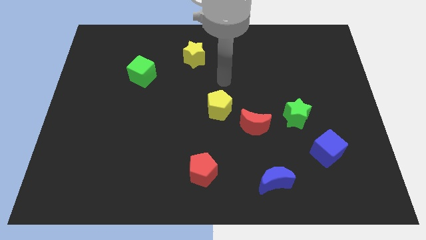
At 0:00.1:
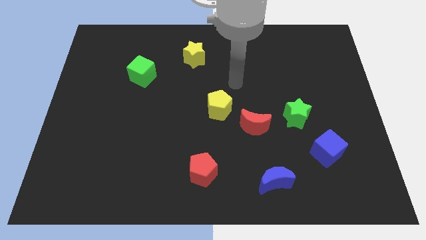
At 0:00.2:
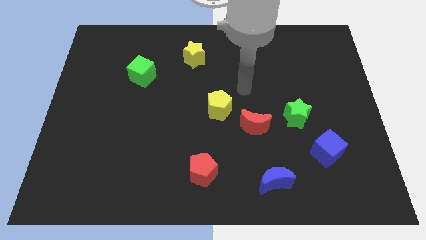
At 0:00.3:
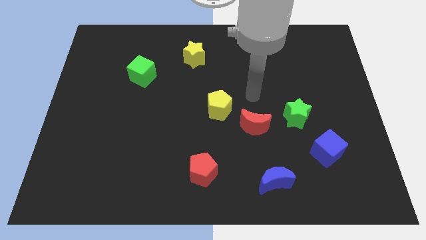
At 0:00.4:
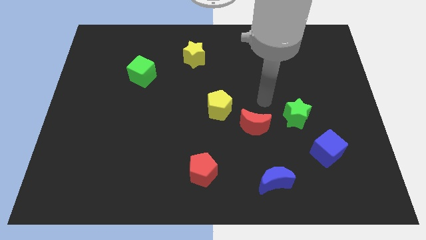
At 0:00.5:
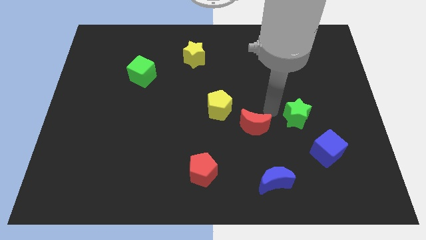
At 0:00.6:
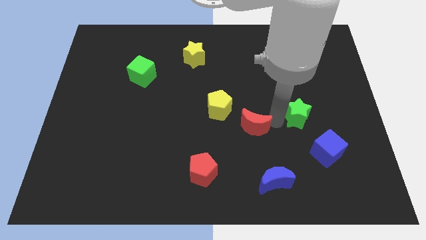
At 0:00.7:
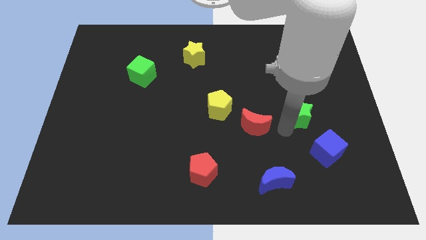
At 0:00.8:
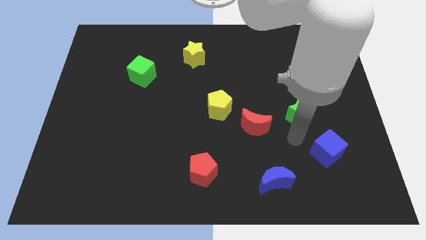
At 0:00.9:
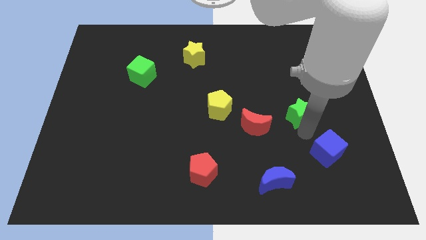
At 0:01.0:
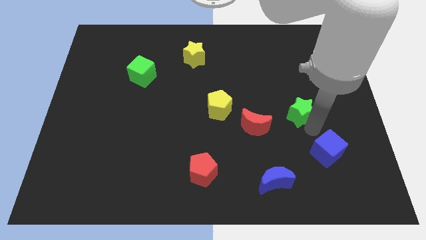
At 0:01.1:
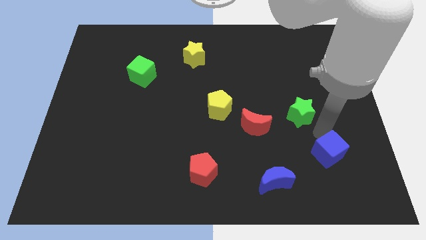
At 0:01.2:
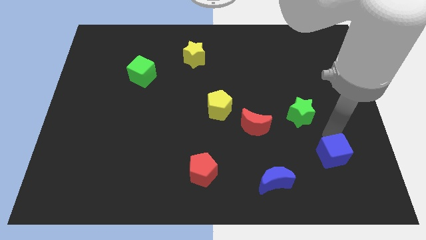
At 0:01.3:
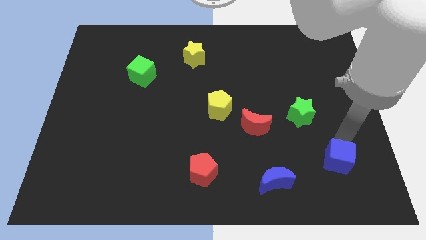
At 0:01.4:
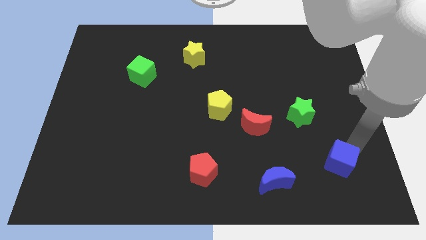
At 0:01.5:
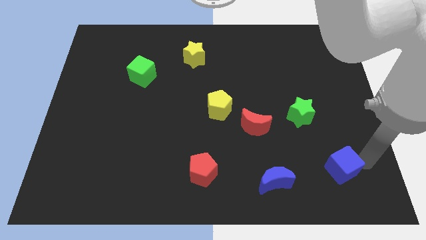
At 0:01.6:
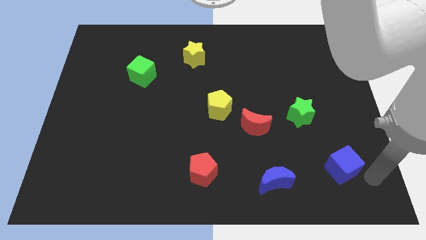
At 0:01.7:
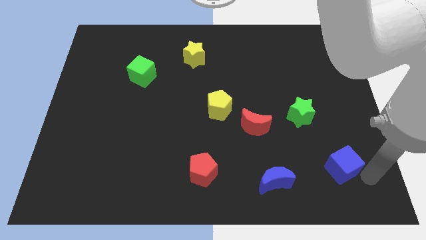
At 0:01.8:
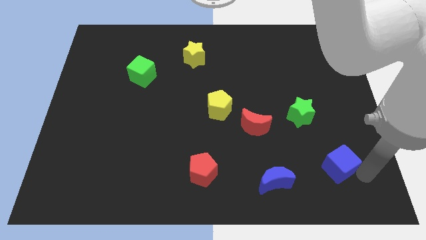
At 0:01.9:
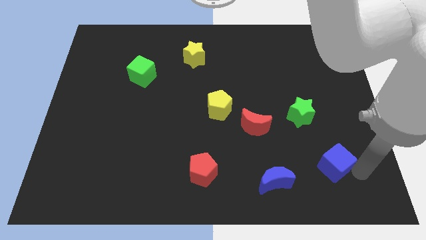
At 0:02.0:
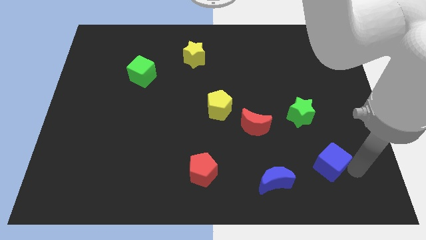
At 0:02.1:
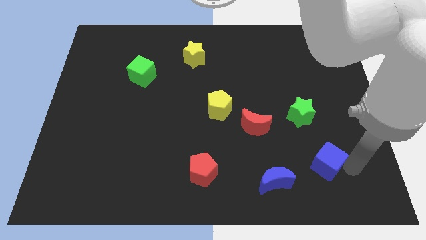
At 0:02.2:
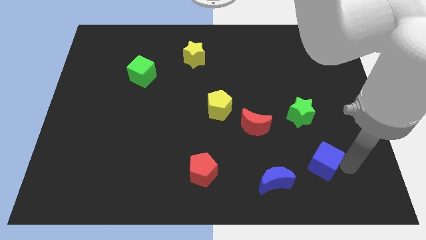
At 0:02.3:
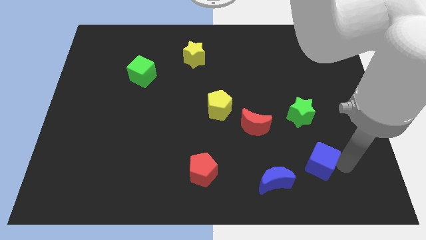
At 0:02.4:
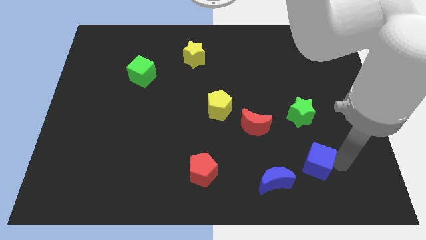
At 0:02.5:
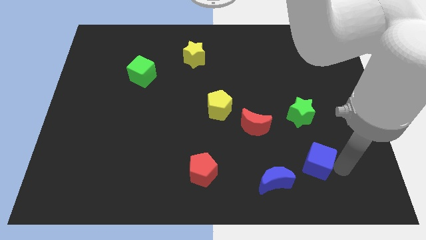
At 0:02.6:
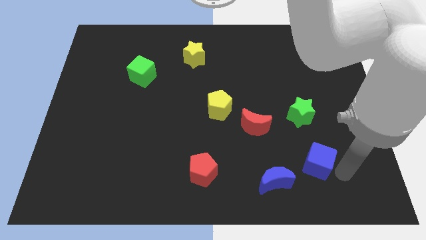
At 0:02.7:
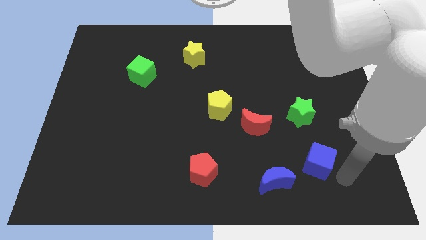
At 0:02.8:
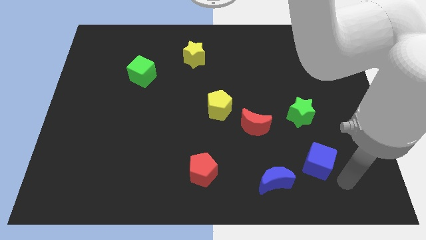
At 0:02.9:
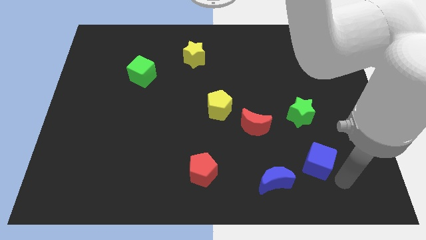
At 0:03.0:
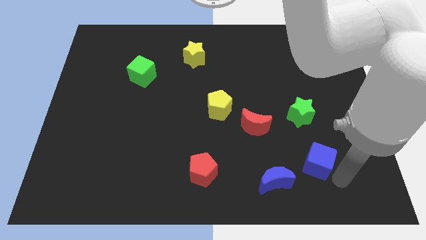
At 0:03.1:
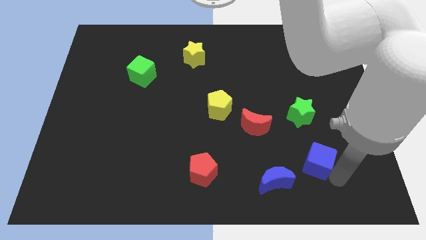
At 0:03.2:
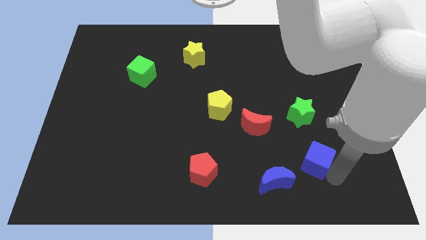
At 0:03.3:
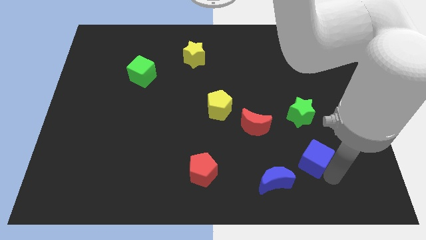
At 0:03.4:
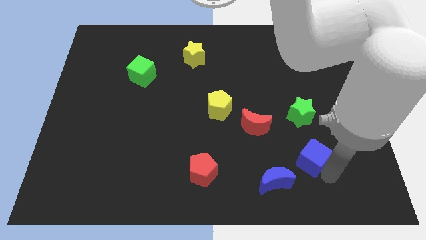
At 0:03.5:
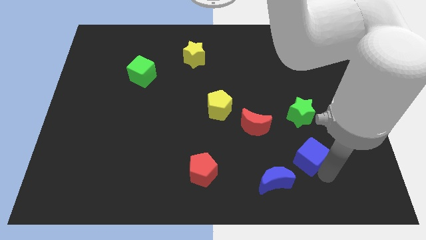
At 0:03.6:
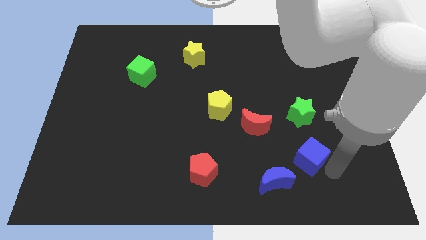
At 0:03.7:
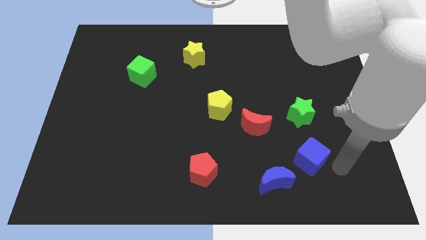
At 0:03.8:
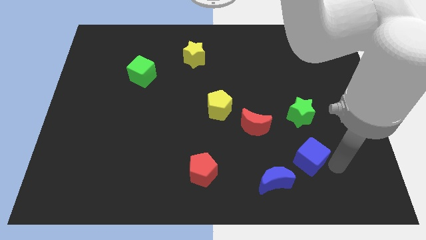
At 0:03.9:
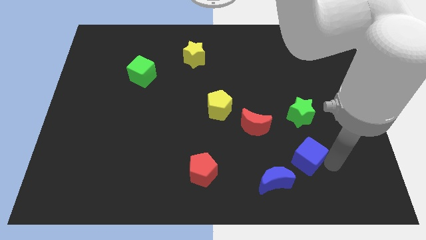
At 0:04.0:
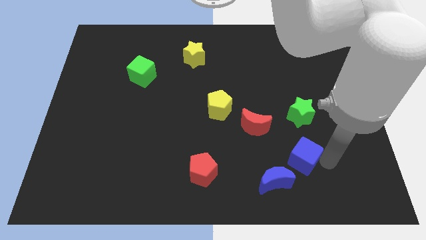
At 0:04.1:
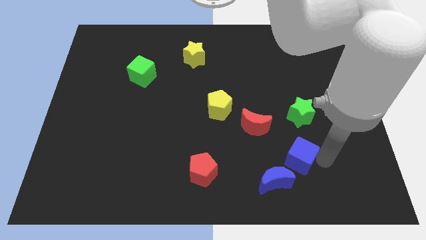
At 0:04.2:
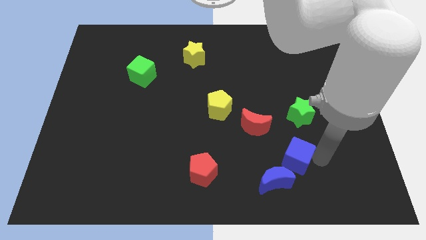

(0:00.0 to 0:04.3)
move the blue cube left a bit

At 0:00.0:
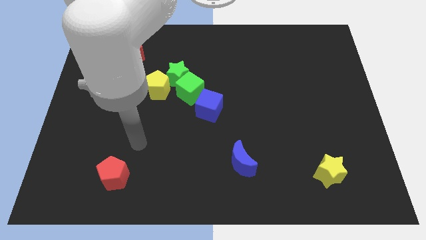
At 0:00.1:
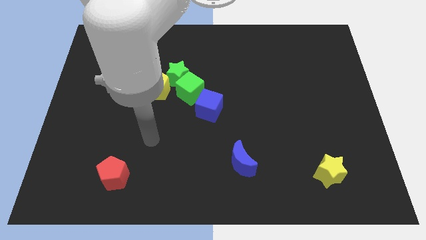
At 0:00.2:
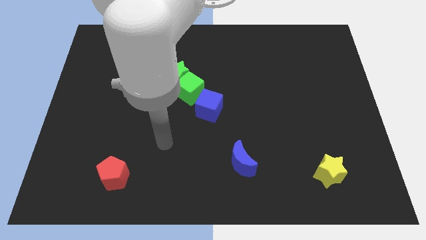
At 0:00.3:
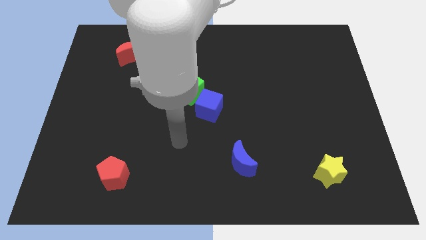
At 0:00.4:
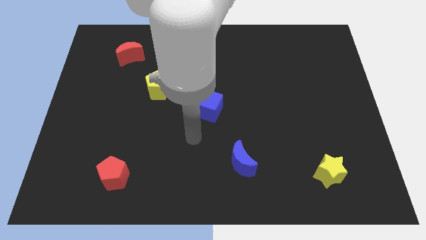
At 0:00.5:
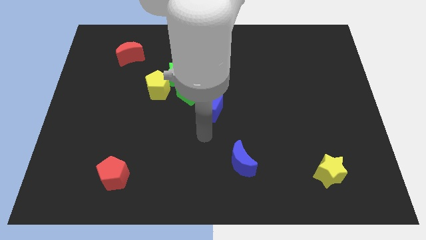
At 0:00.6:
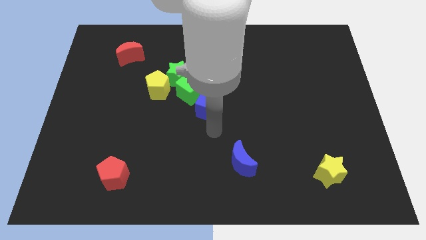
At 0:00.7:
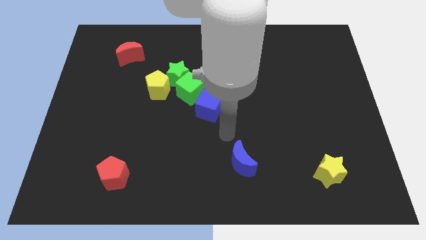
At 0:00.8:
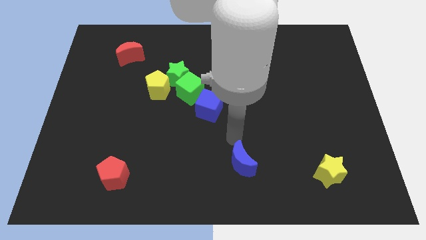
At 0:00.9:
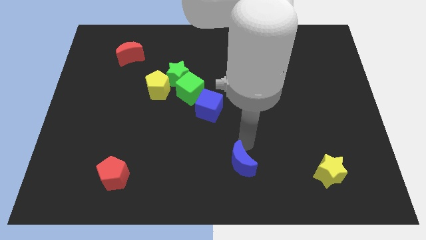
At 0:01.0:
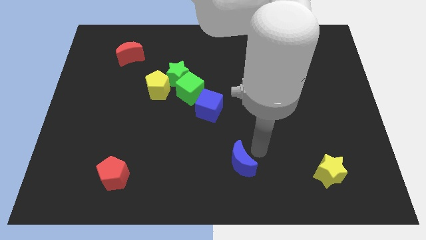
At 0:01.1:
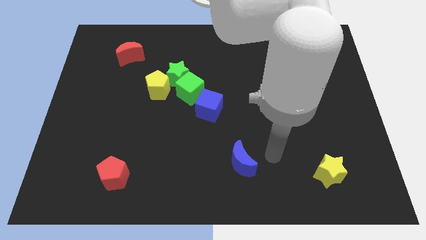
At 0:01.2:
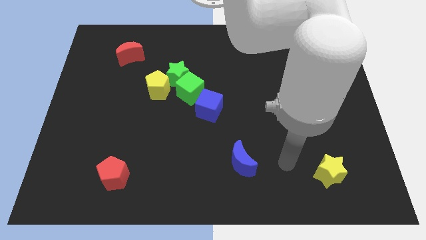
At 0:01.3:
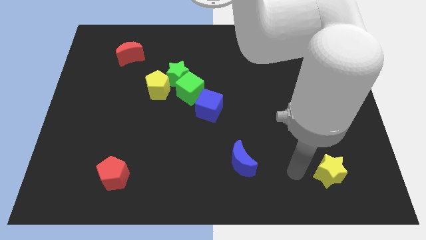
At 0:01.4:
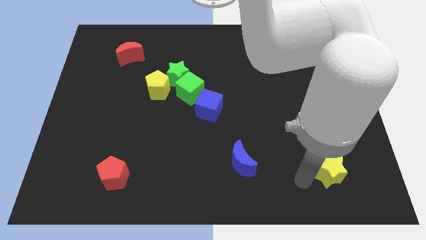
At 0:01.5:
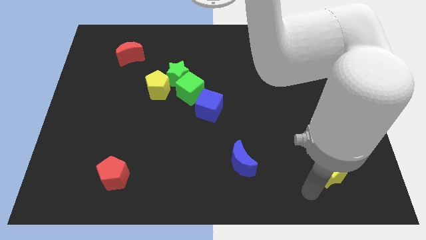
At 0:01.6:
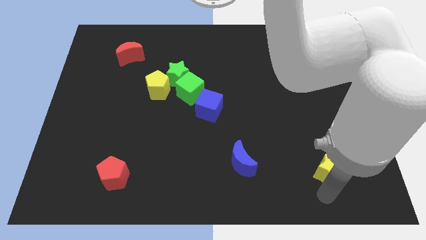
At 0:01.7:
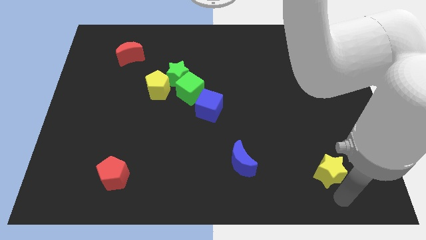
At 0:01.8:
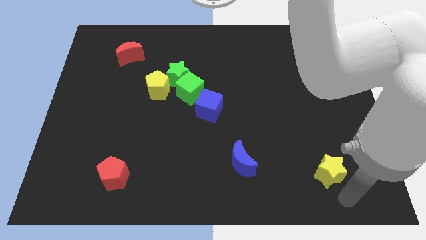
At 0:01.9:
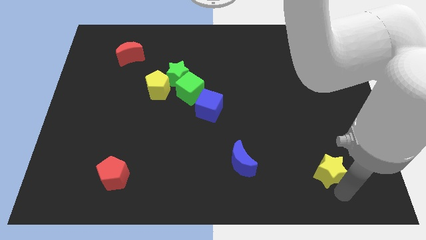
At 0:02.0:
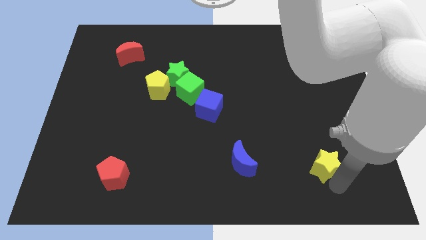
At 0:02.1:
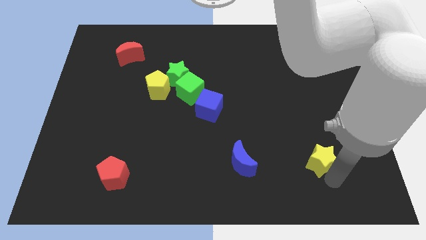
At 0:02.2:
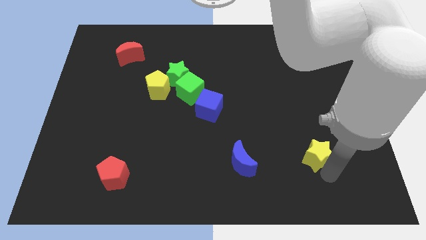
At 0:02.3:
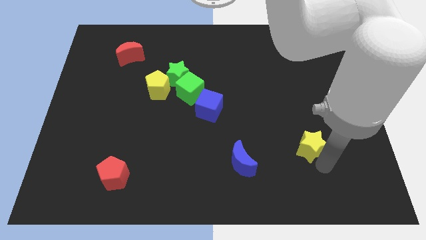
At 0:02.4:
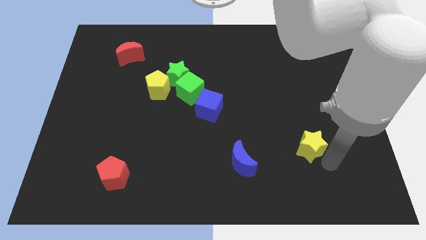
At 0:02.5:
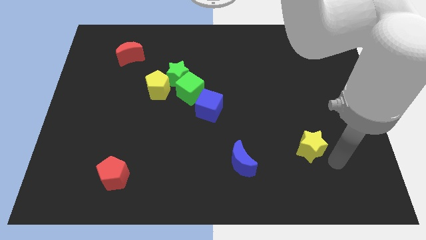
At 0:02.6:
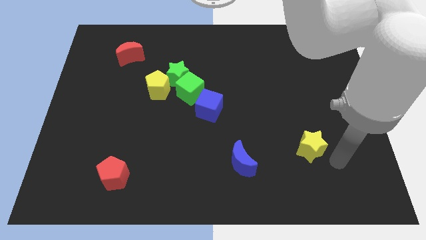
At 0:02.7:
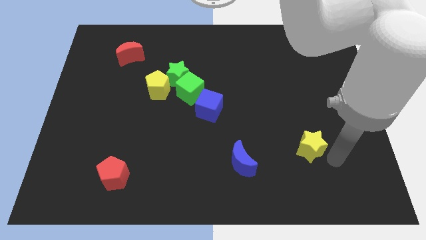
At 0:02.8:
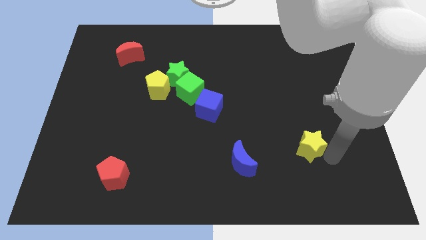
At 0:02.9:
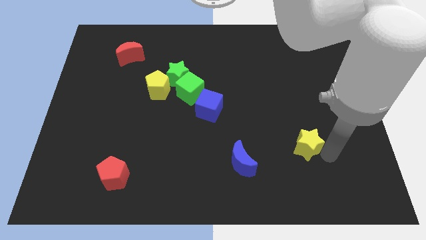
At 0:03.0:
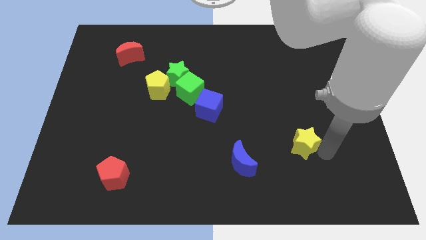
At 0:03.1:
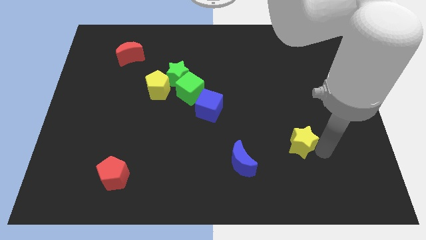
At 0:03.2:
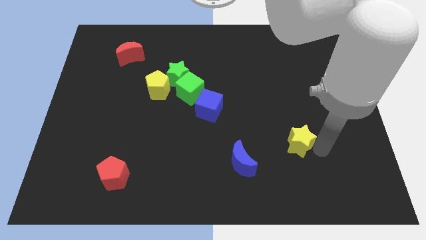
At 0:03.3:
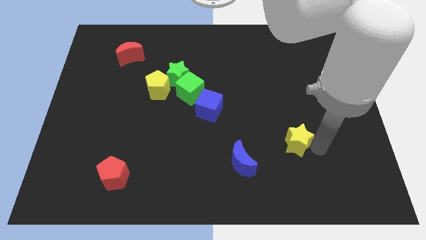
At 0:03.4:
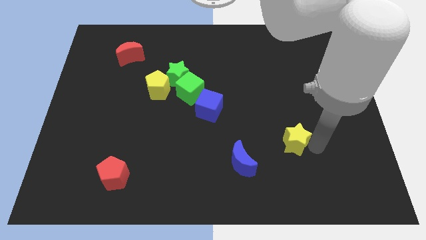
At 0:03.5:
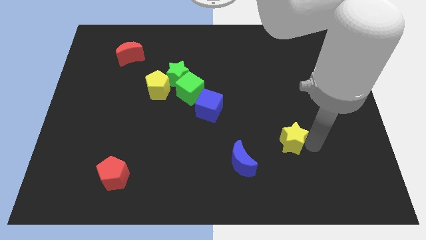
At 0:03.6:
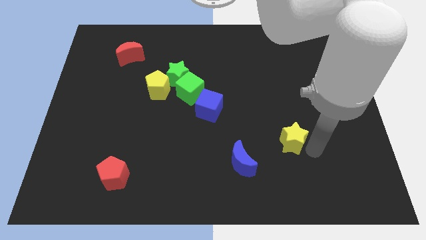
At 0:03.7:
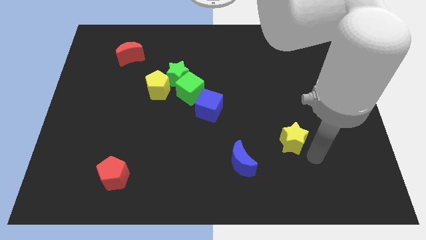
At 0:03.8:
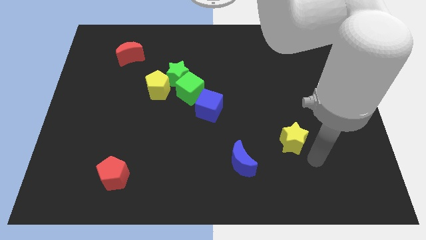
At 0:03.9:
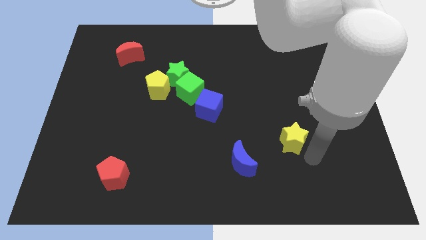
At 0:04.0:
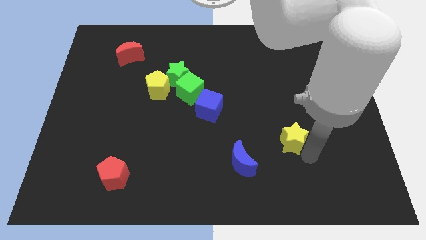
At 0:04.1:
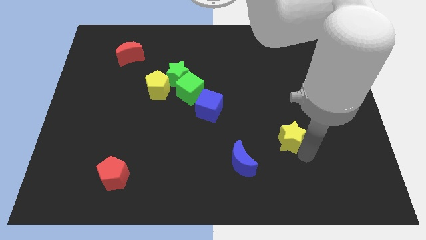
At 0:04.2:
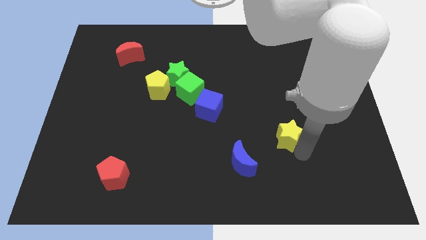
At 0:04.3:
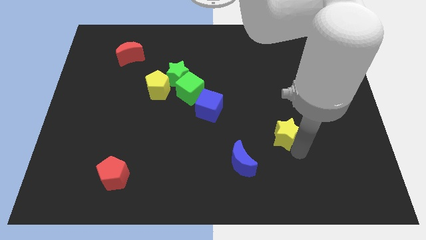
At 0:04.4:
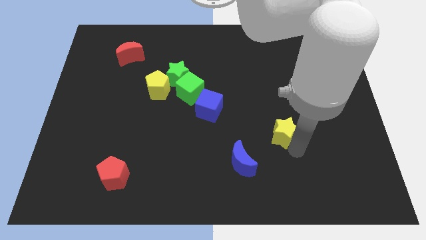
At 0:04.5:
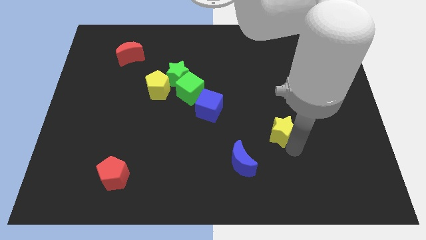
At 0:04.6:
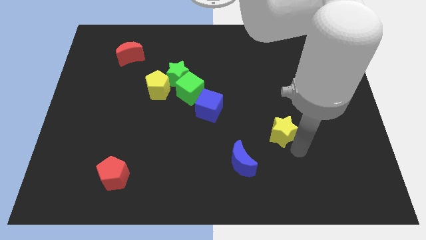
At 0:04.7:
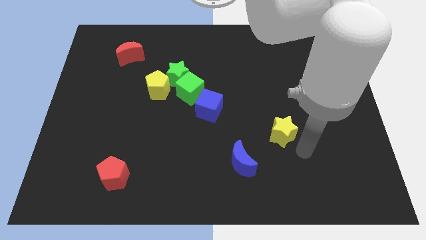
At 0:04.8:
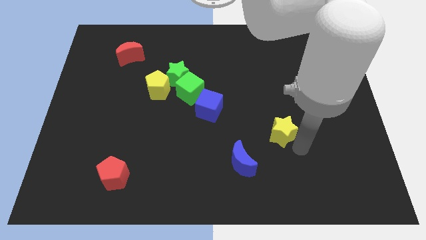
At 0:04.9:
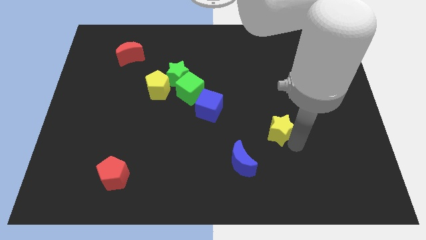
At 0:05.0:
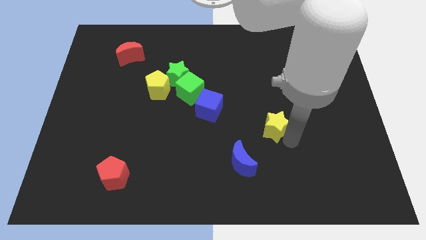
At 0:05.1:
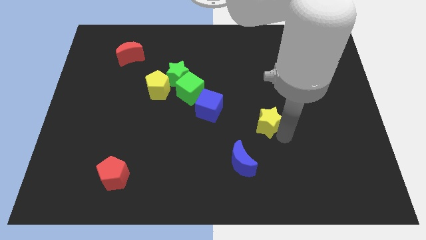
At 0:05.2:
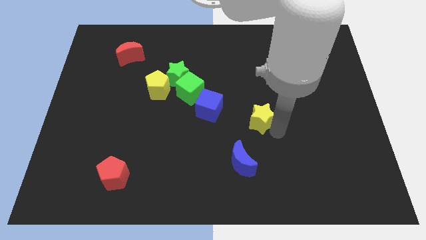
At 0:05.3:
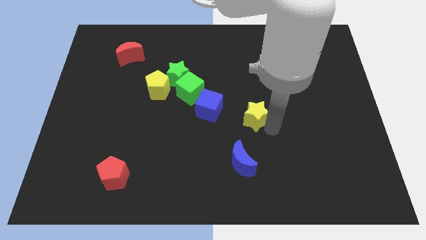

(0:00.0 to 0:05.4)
push the yellow star up and left
